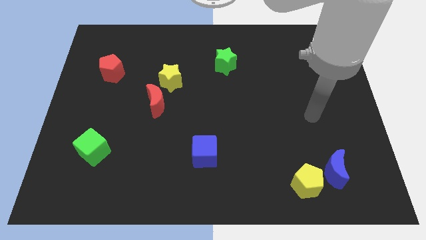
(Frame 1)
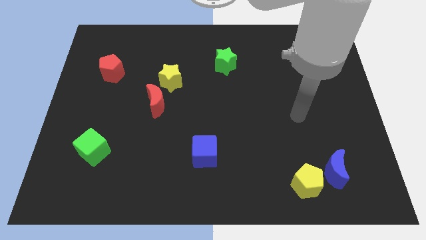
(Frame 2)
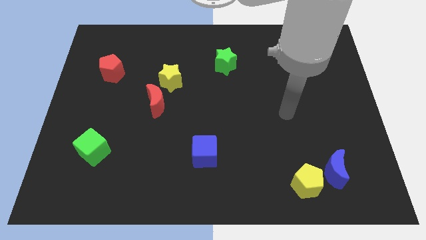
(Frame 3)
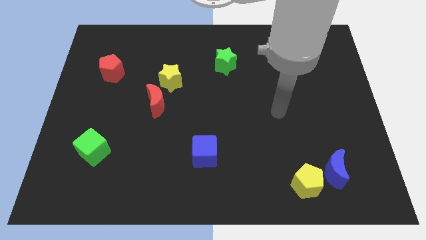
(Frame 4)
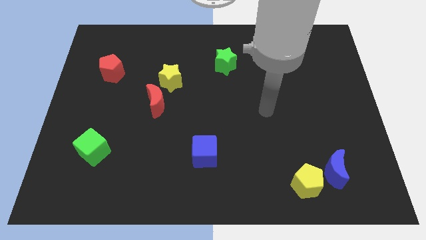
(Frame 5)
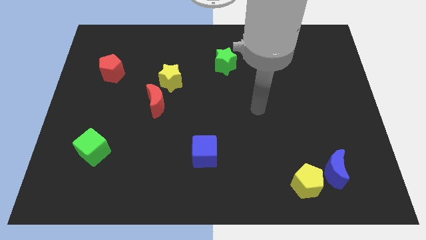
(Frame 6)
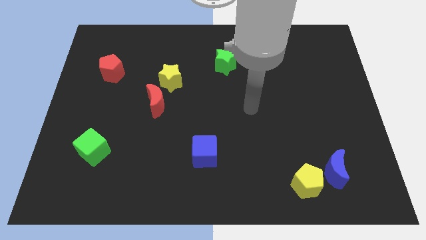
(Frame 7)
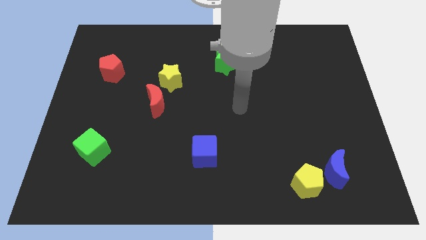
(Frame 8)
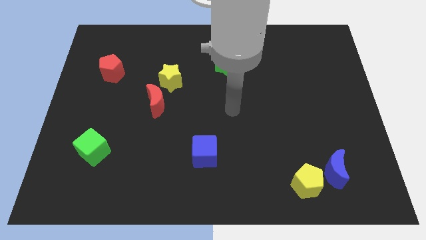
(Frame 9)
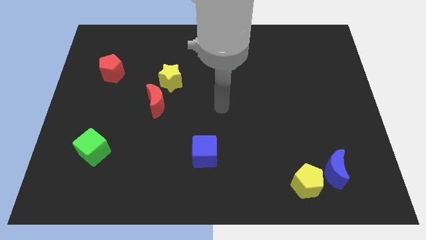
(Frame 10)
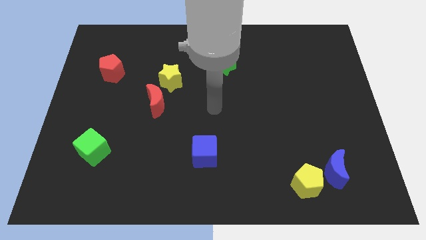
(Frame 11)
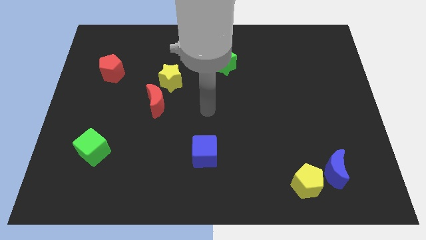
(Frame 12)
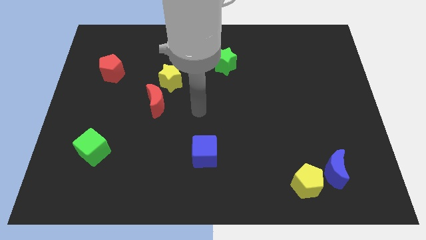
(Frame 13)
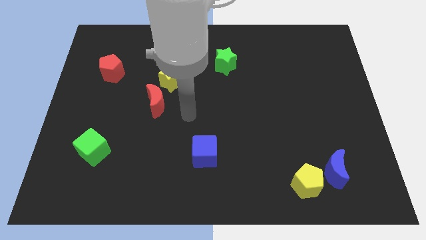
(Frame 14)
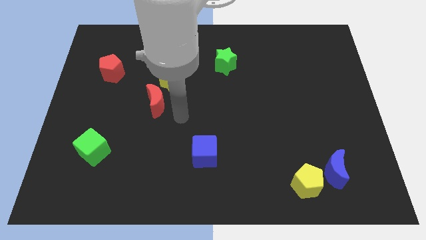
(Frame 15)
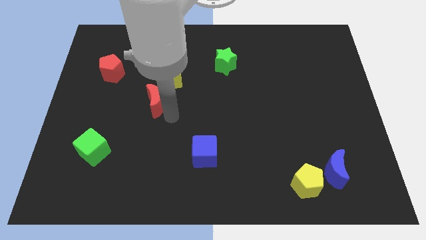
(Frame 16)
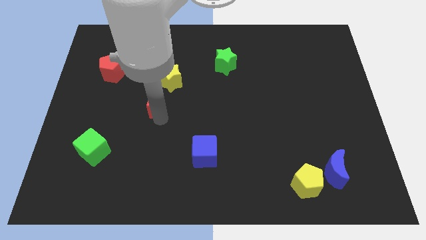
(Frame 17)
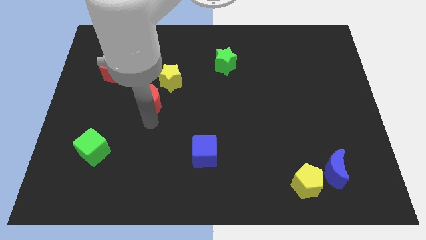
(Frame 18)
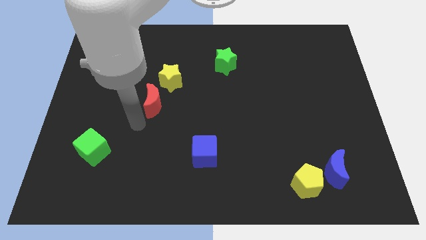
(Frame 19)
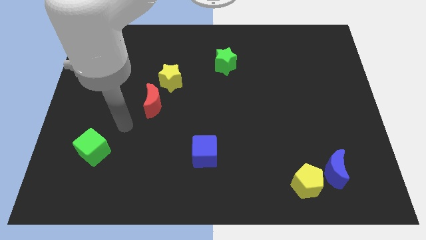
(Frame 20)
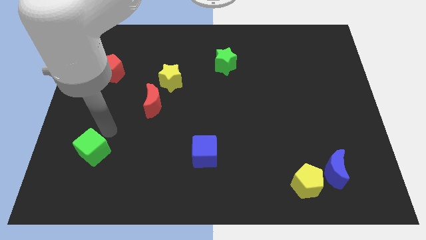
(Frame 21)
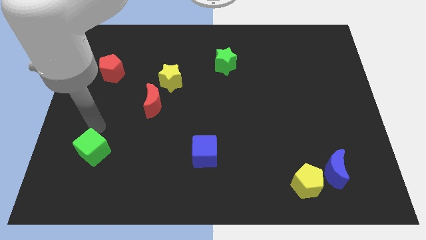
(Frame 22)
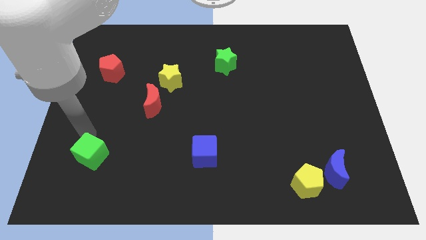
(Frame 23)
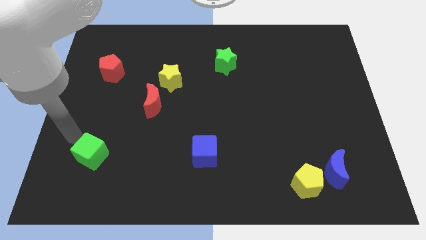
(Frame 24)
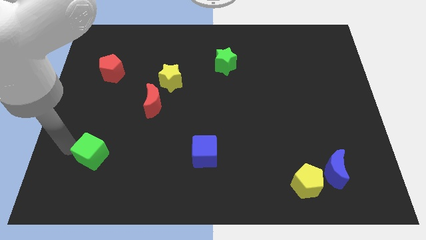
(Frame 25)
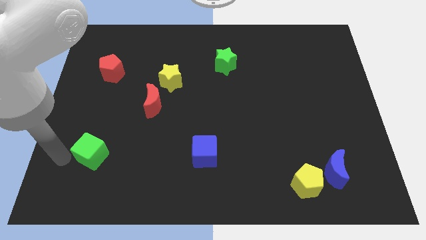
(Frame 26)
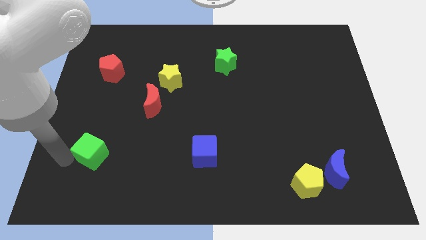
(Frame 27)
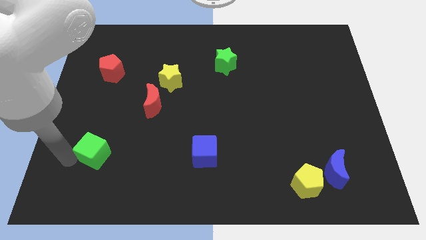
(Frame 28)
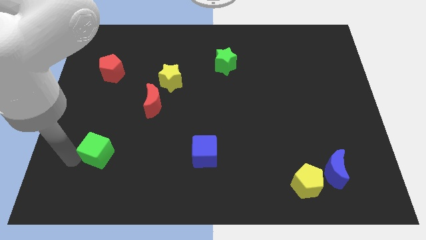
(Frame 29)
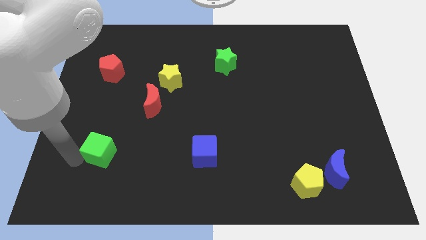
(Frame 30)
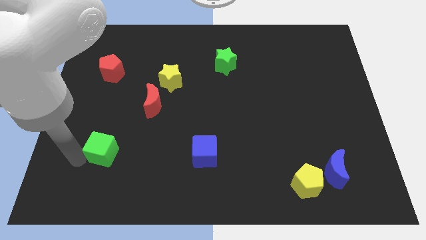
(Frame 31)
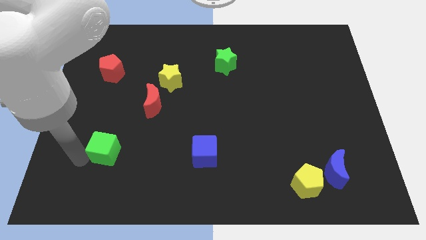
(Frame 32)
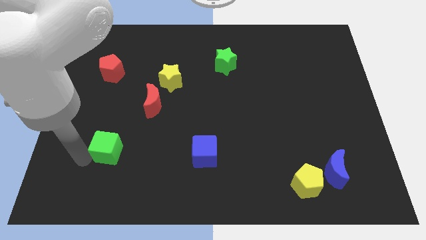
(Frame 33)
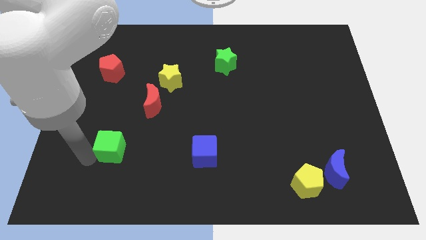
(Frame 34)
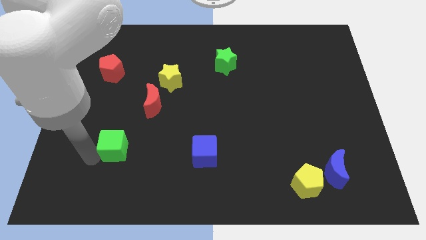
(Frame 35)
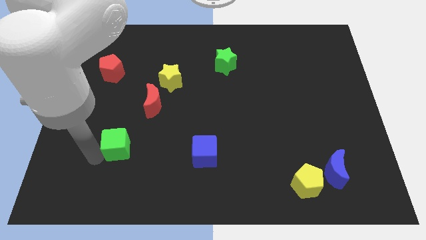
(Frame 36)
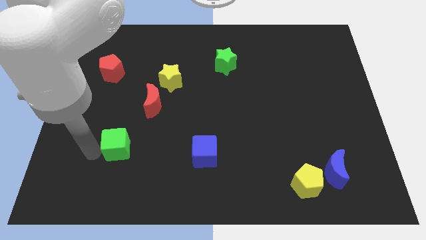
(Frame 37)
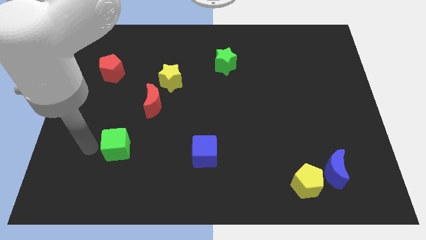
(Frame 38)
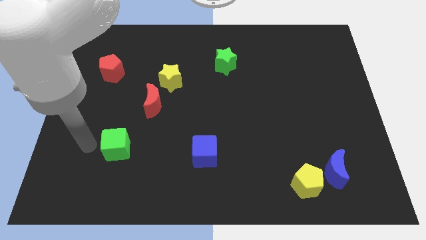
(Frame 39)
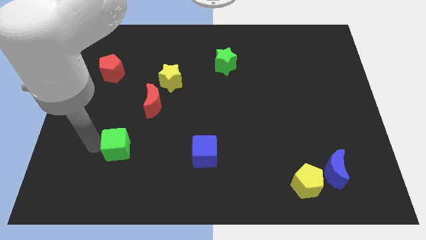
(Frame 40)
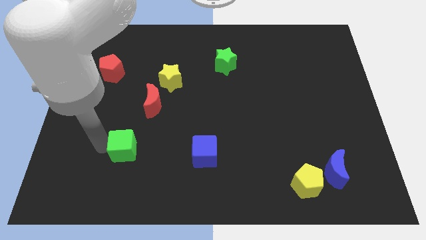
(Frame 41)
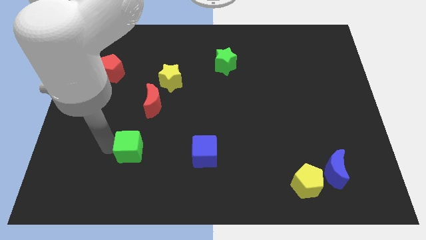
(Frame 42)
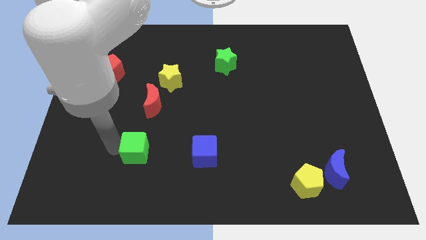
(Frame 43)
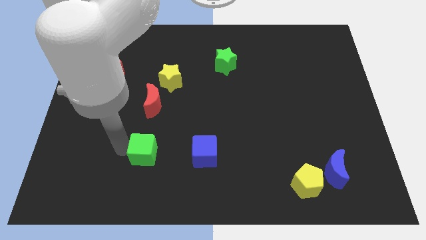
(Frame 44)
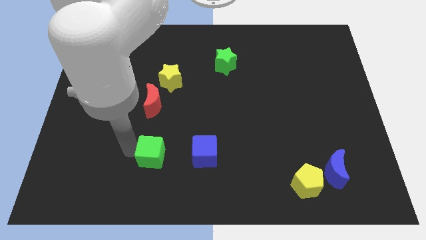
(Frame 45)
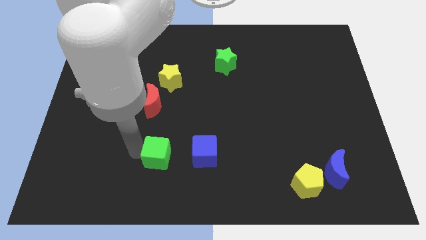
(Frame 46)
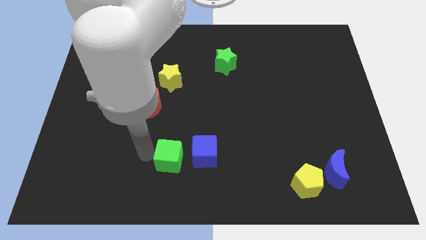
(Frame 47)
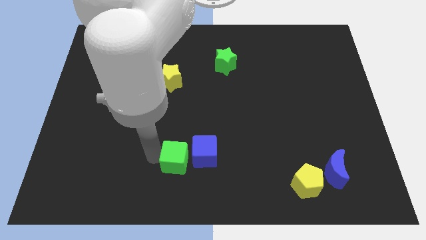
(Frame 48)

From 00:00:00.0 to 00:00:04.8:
slide the green cube next to the blue cube

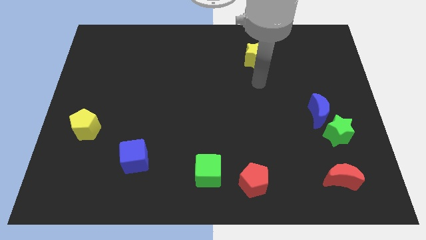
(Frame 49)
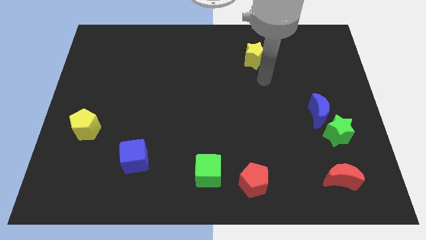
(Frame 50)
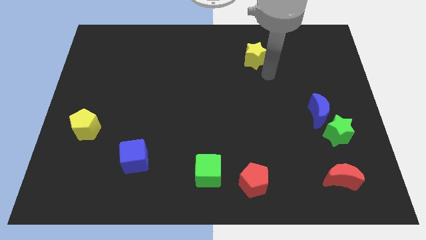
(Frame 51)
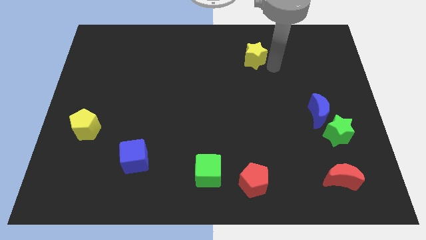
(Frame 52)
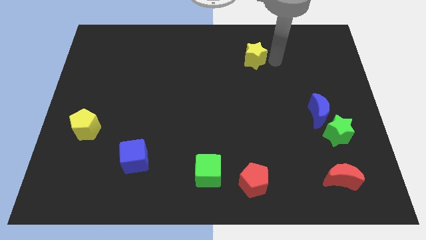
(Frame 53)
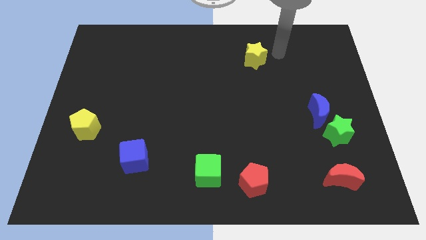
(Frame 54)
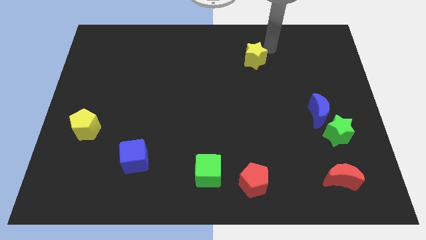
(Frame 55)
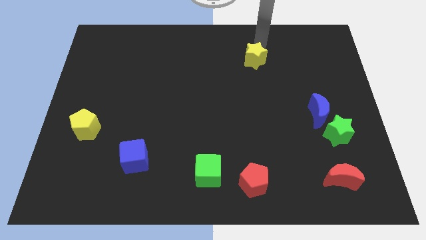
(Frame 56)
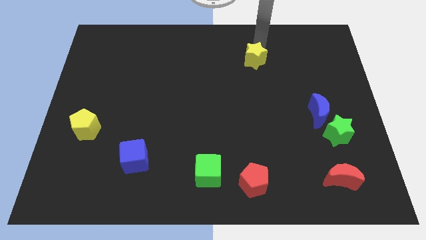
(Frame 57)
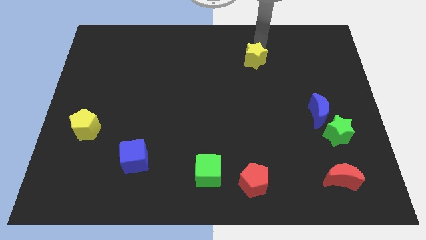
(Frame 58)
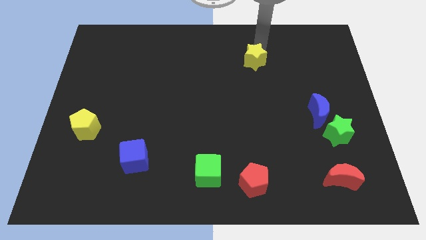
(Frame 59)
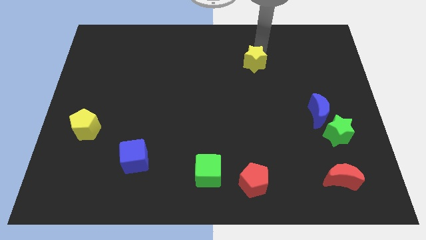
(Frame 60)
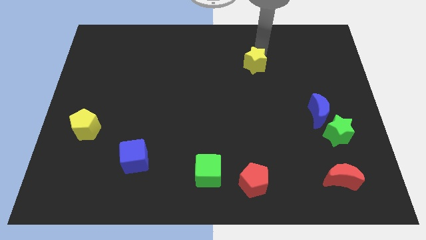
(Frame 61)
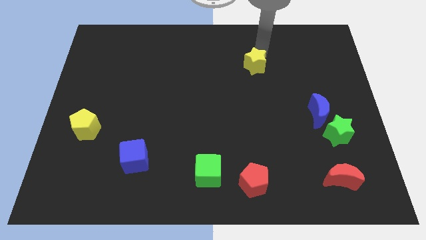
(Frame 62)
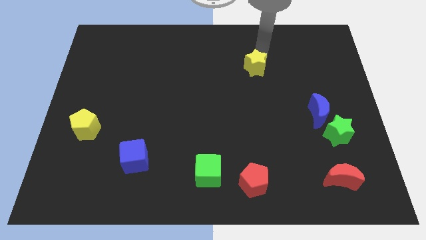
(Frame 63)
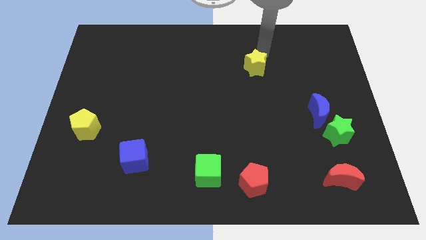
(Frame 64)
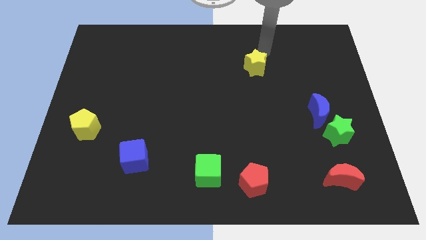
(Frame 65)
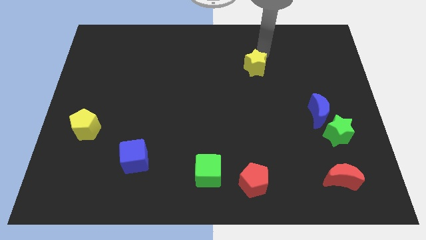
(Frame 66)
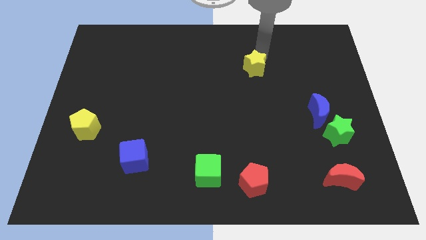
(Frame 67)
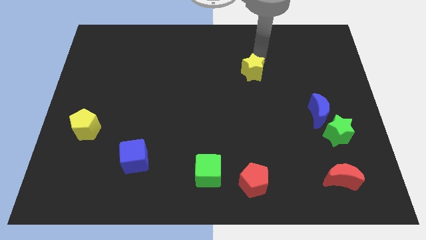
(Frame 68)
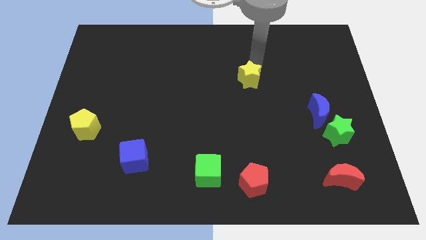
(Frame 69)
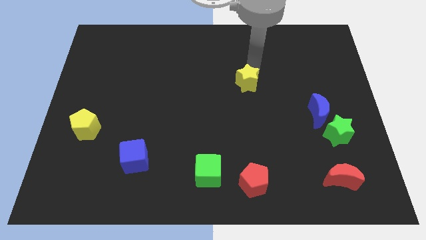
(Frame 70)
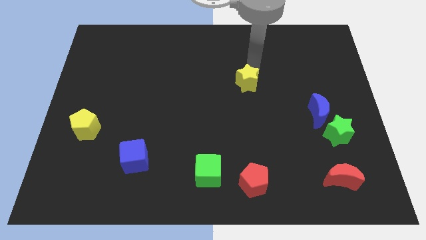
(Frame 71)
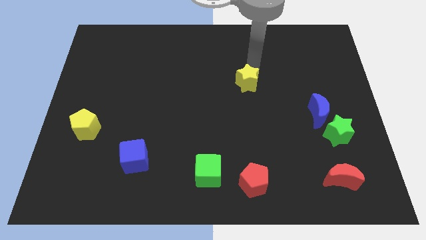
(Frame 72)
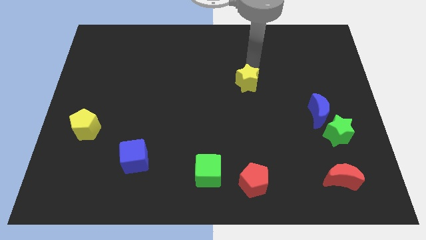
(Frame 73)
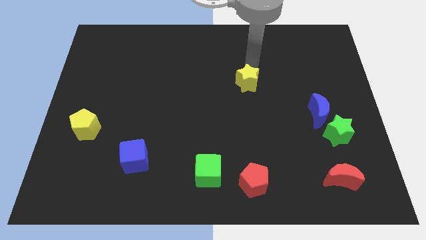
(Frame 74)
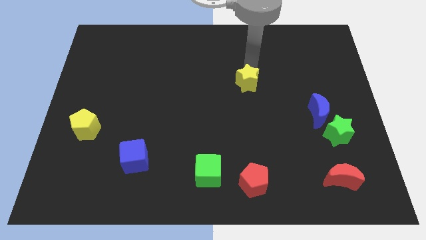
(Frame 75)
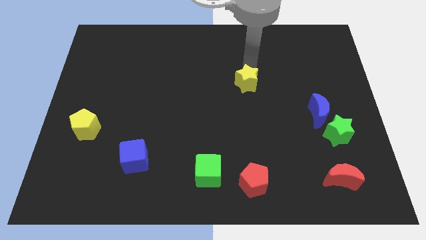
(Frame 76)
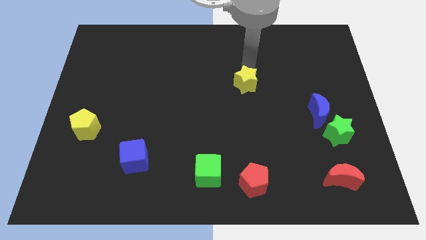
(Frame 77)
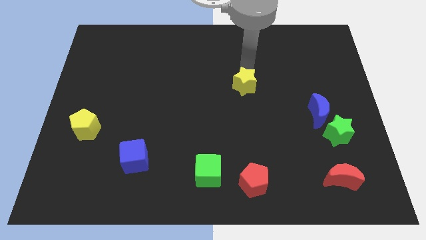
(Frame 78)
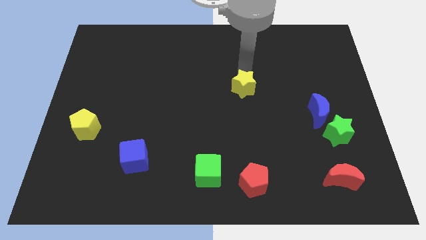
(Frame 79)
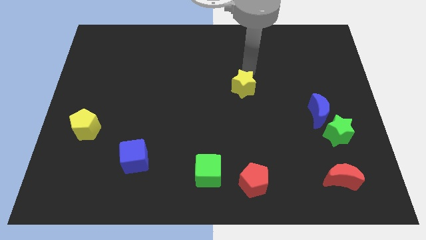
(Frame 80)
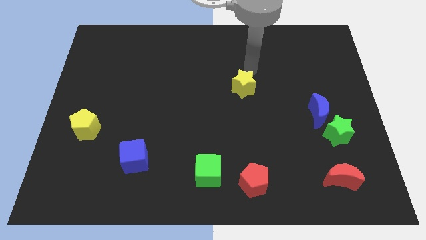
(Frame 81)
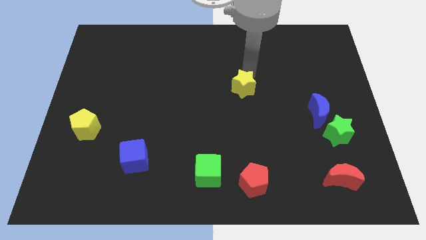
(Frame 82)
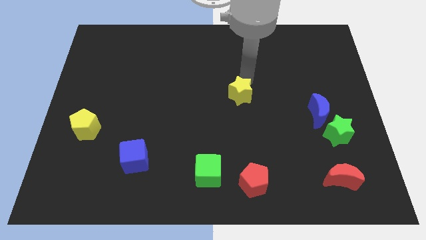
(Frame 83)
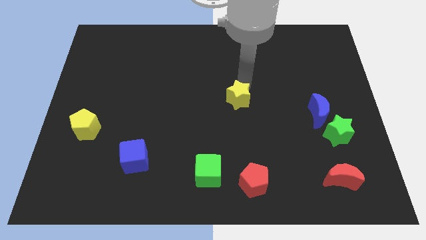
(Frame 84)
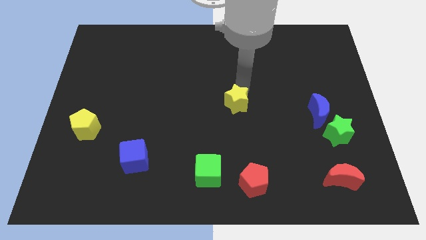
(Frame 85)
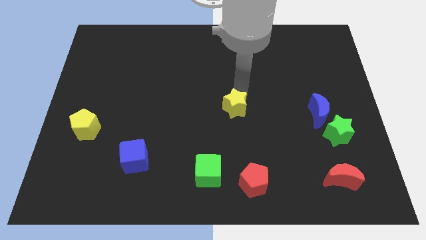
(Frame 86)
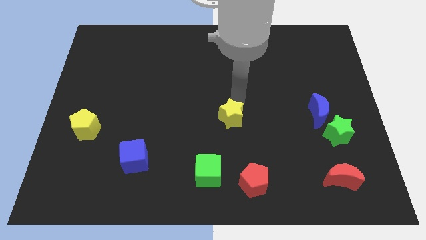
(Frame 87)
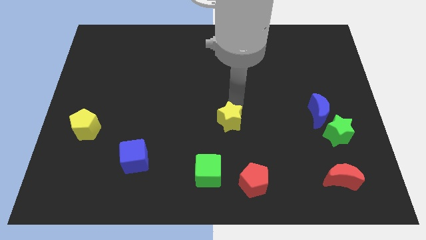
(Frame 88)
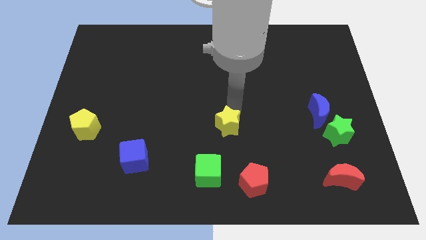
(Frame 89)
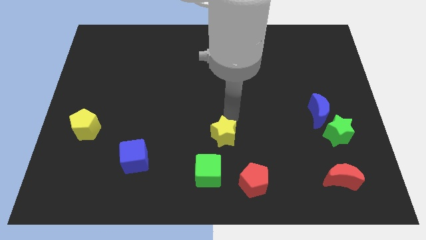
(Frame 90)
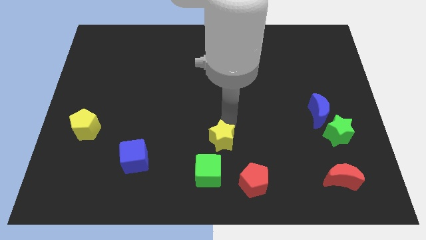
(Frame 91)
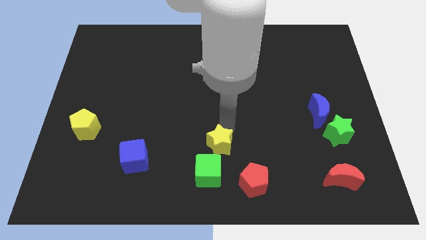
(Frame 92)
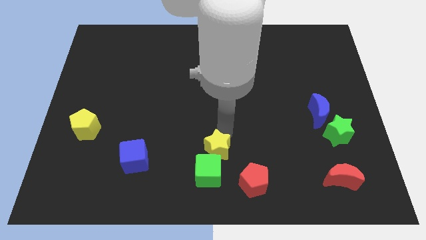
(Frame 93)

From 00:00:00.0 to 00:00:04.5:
move the yellow star close to the green cube
